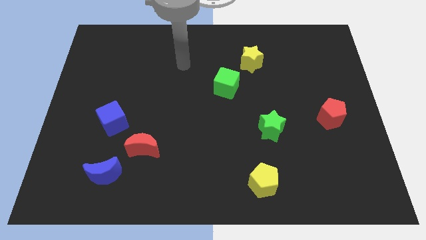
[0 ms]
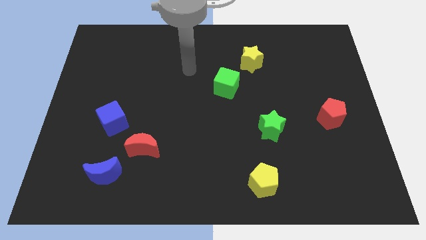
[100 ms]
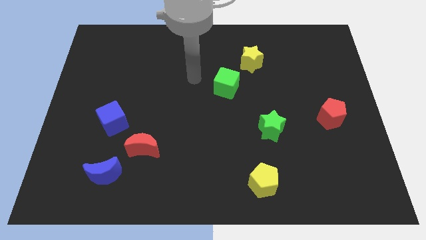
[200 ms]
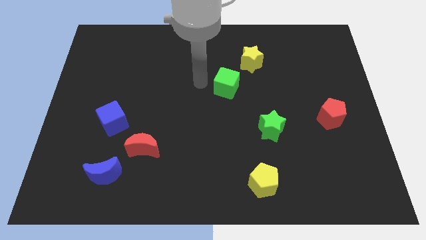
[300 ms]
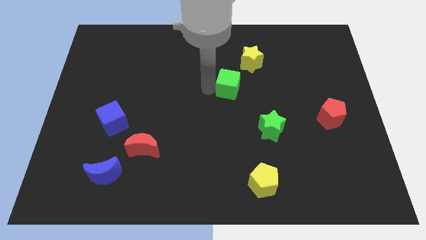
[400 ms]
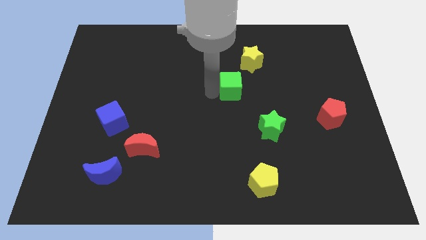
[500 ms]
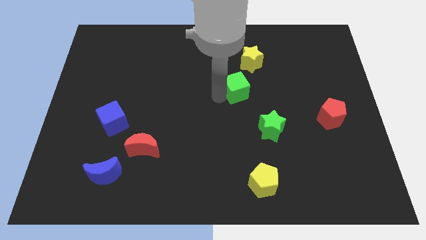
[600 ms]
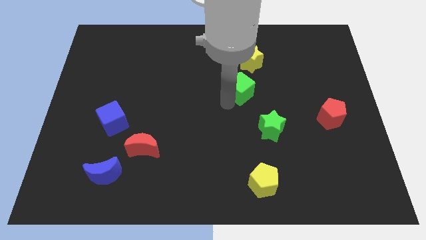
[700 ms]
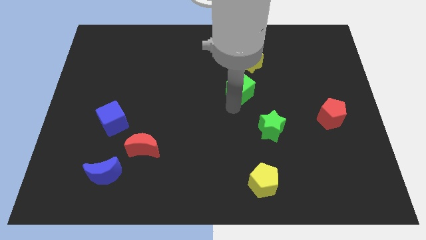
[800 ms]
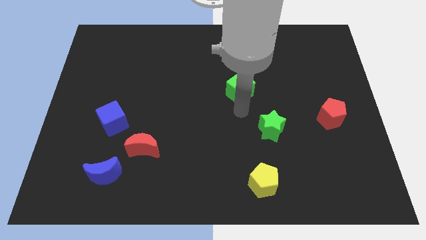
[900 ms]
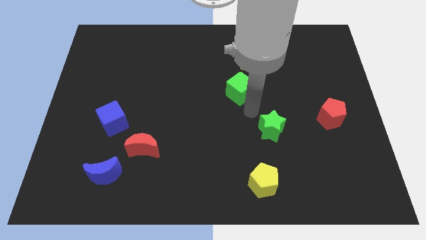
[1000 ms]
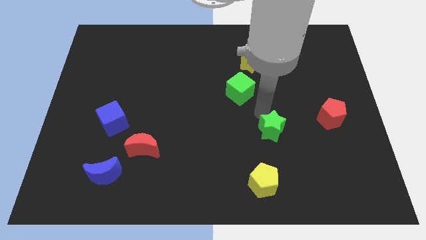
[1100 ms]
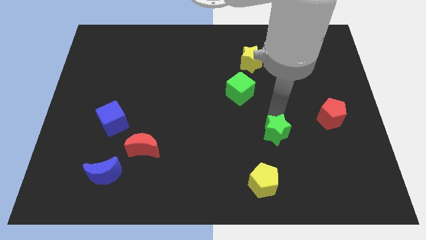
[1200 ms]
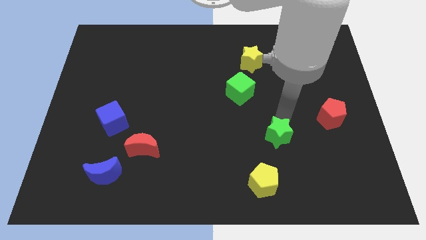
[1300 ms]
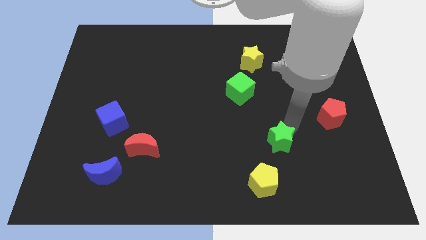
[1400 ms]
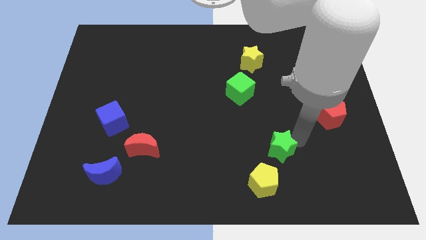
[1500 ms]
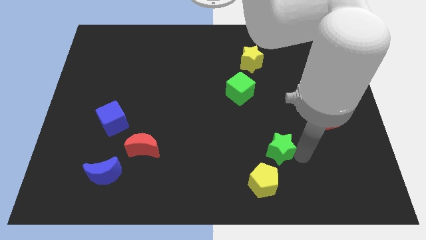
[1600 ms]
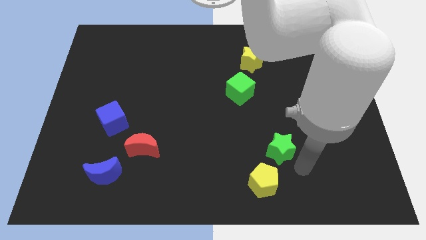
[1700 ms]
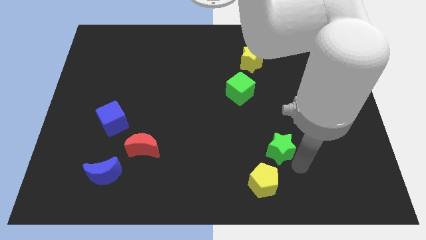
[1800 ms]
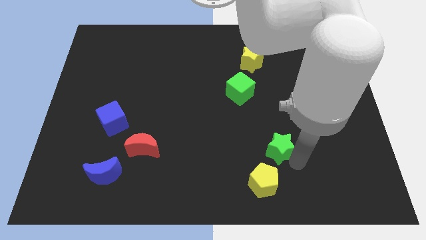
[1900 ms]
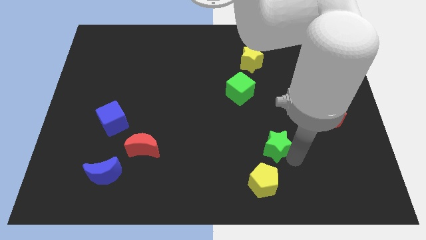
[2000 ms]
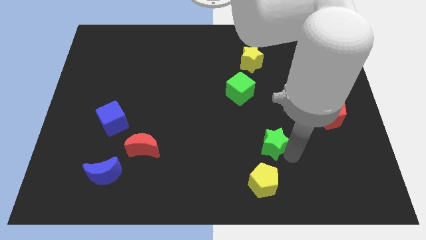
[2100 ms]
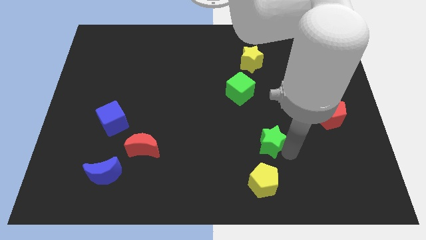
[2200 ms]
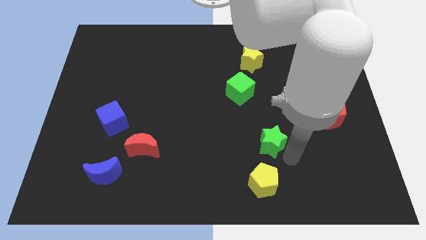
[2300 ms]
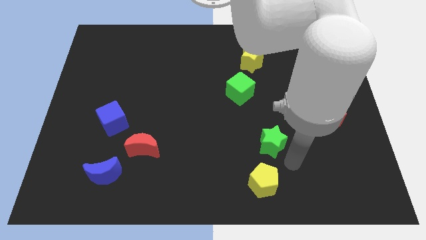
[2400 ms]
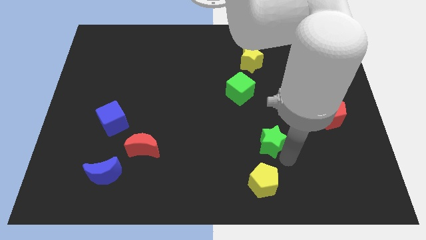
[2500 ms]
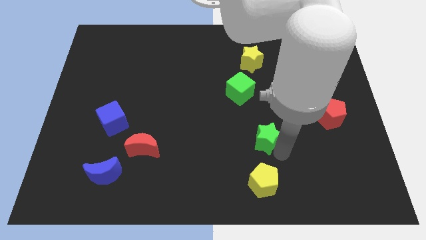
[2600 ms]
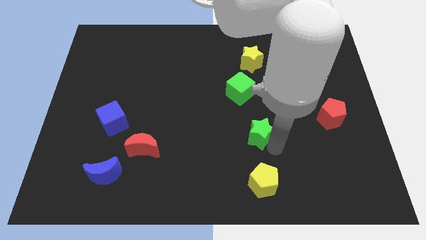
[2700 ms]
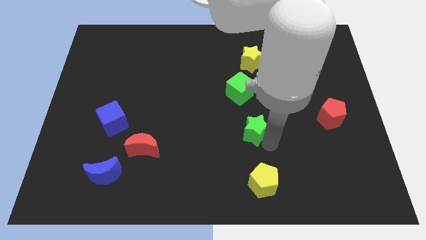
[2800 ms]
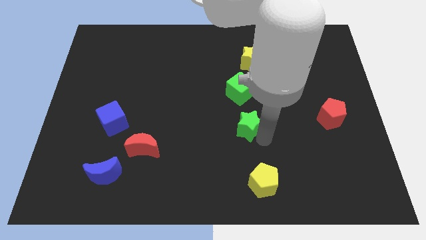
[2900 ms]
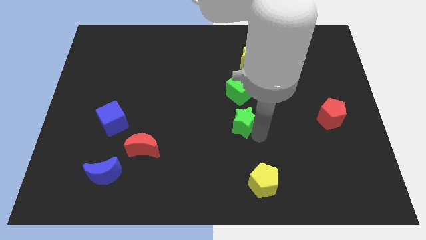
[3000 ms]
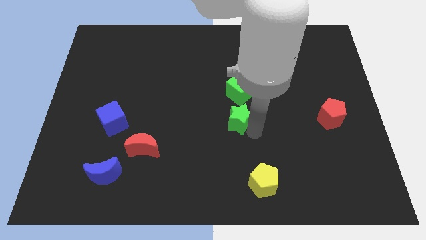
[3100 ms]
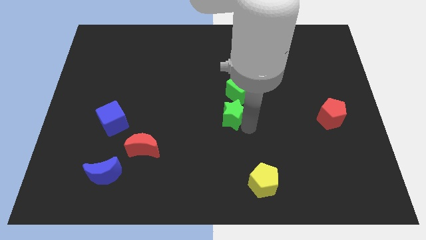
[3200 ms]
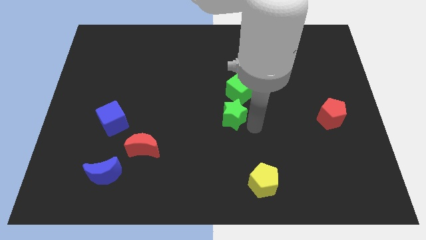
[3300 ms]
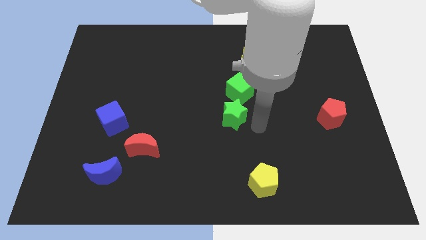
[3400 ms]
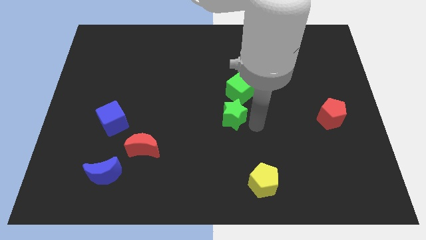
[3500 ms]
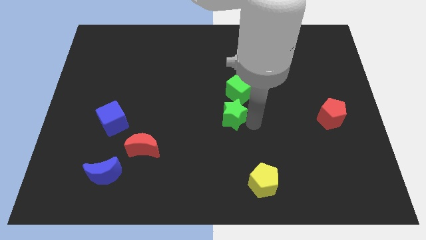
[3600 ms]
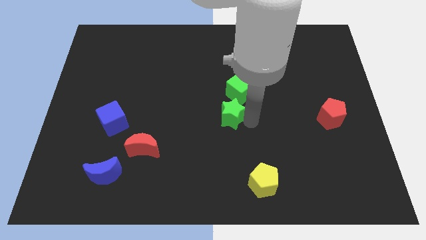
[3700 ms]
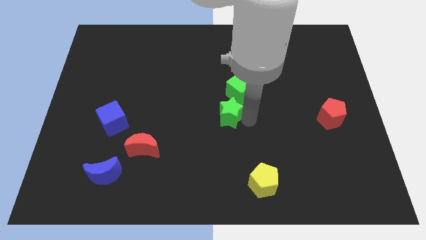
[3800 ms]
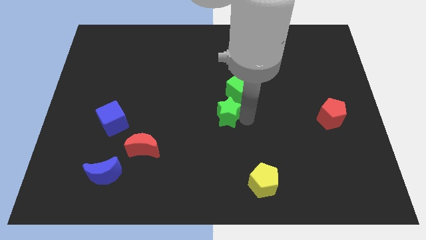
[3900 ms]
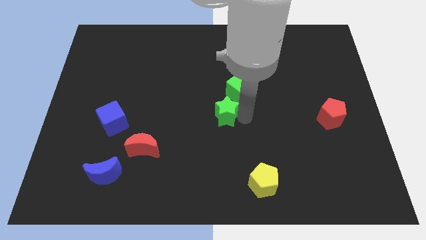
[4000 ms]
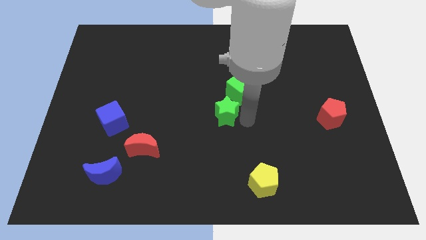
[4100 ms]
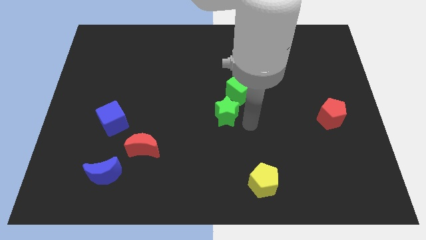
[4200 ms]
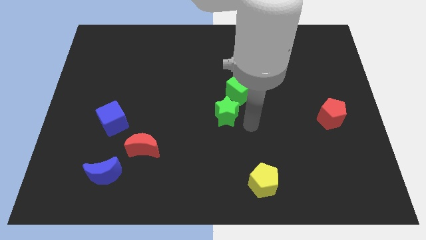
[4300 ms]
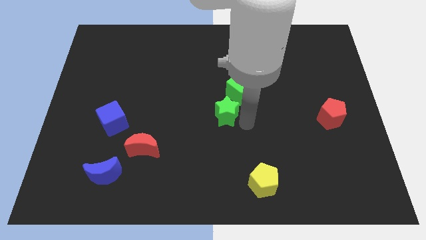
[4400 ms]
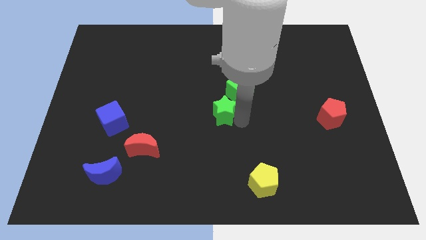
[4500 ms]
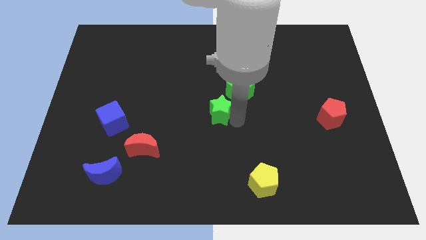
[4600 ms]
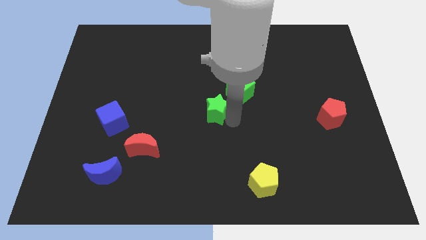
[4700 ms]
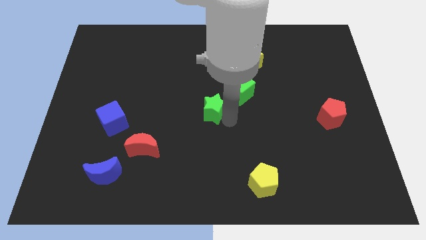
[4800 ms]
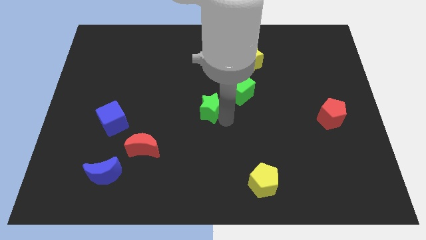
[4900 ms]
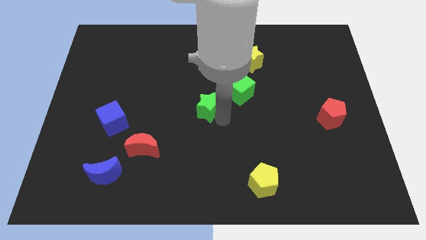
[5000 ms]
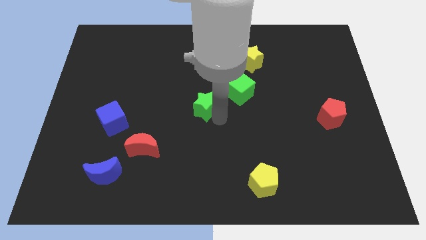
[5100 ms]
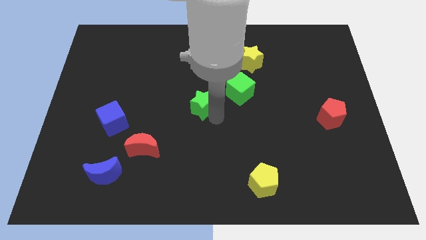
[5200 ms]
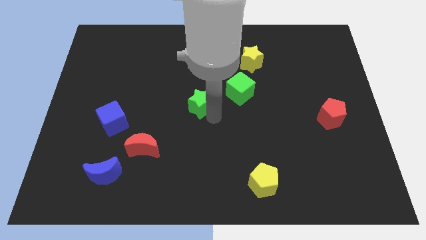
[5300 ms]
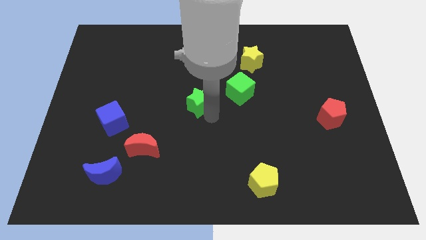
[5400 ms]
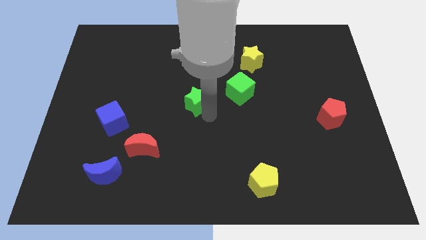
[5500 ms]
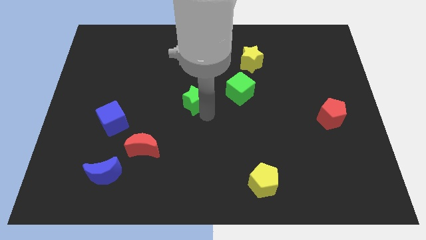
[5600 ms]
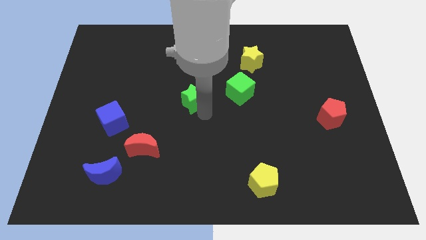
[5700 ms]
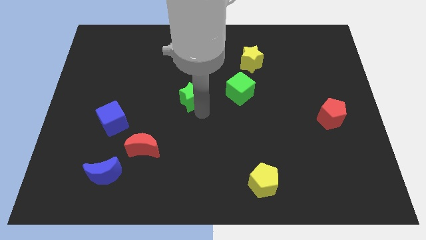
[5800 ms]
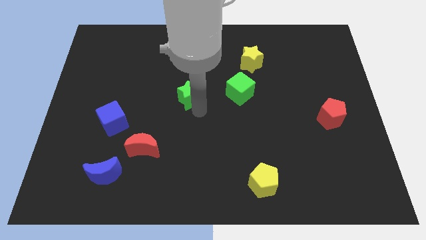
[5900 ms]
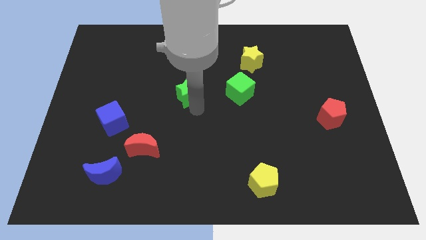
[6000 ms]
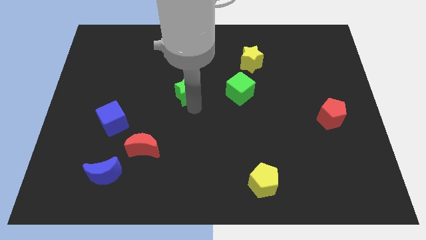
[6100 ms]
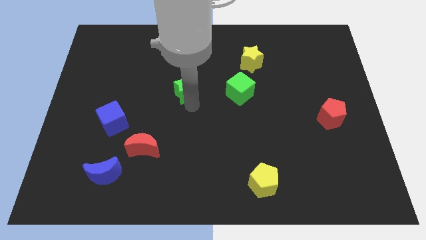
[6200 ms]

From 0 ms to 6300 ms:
slide the green star upwards and then left

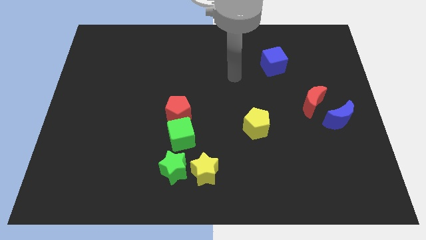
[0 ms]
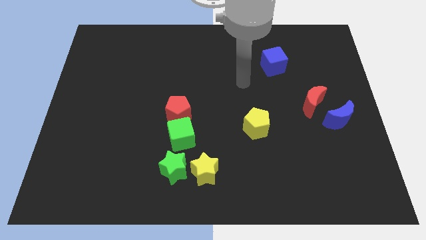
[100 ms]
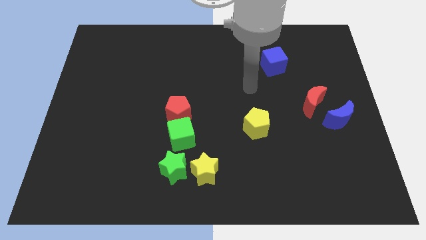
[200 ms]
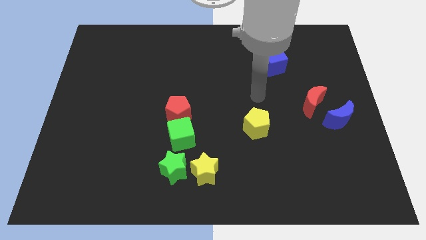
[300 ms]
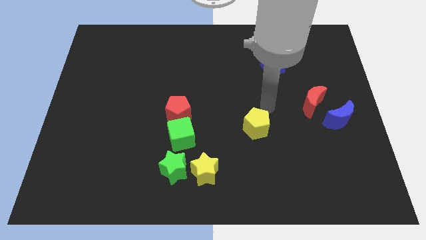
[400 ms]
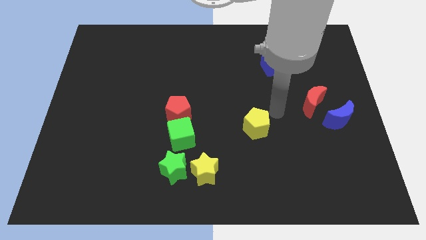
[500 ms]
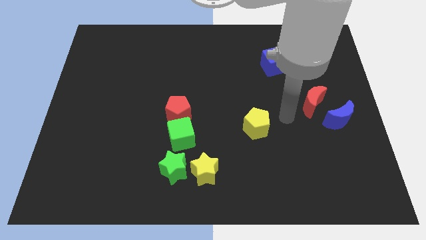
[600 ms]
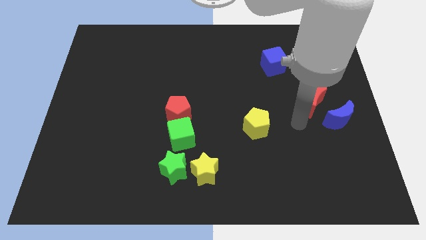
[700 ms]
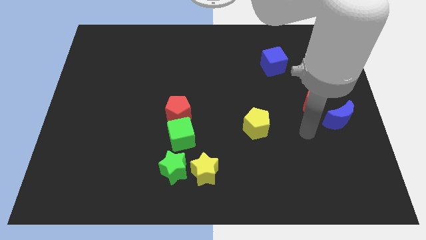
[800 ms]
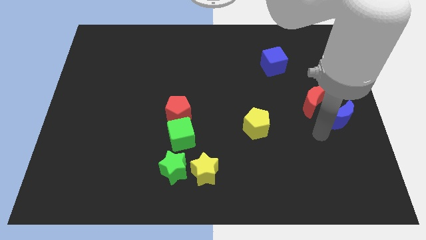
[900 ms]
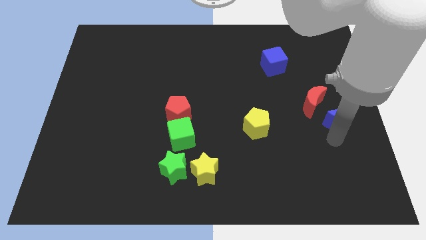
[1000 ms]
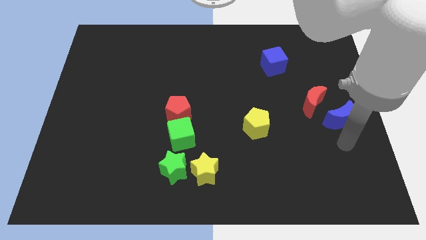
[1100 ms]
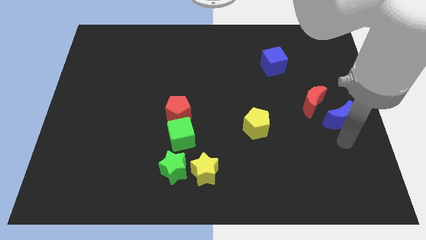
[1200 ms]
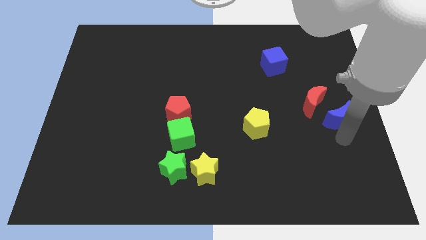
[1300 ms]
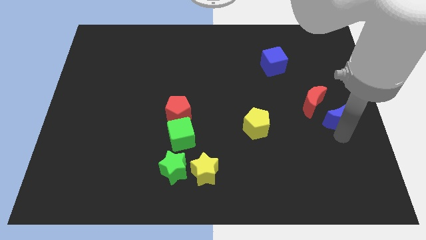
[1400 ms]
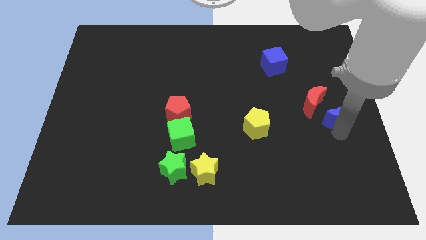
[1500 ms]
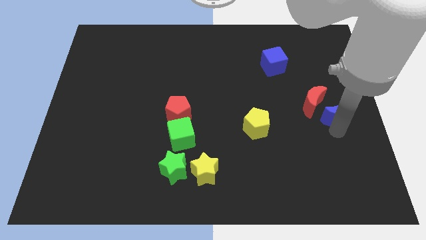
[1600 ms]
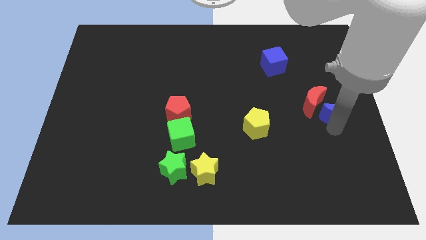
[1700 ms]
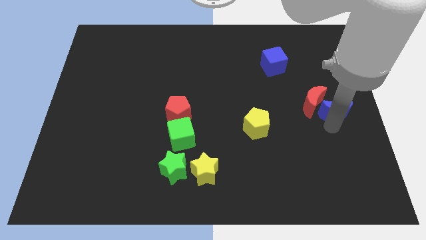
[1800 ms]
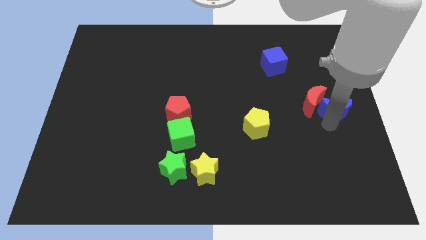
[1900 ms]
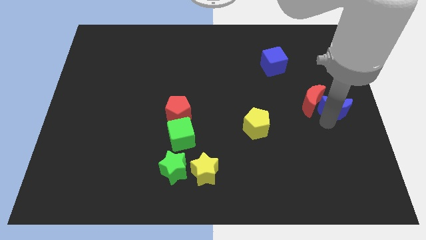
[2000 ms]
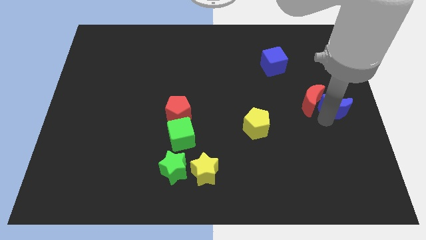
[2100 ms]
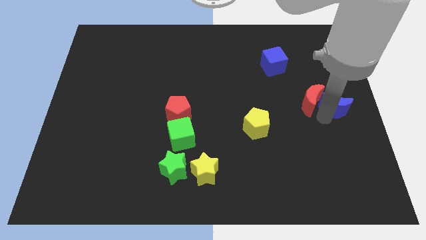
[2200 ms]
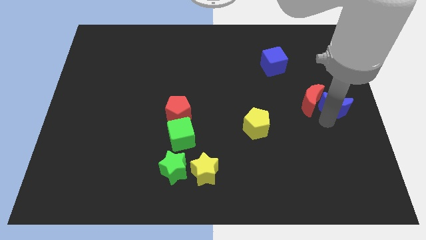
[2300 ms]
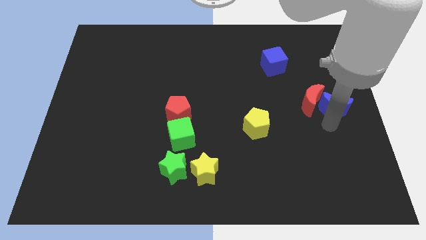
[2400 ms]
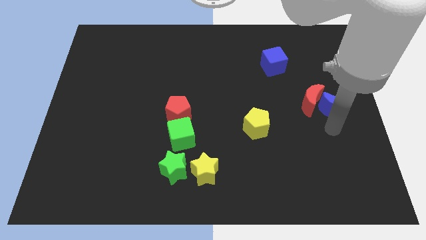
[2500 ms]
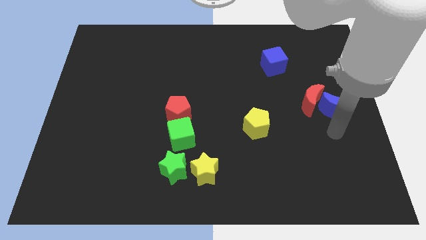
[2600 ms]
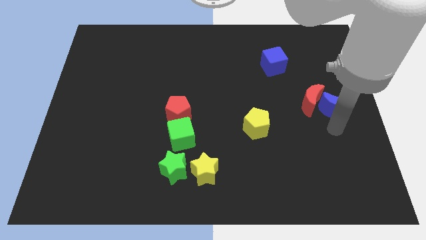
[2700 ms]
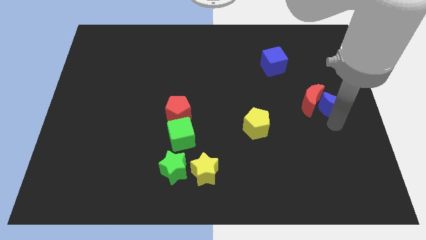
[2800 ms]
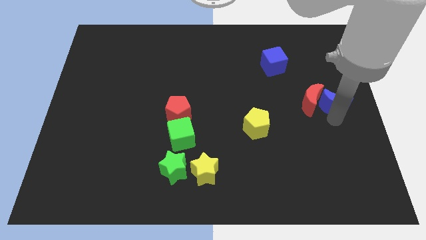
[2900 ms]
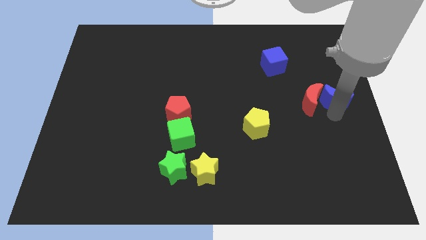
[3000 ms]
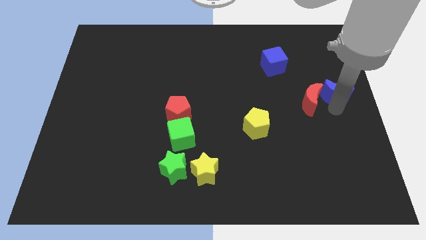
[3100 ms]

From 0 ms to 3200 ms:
slightly move the blue moon upwards
